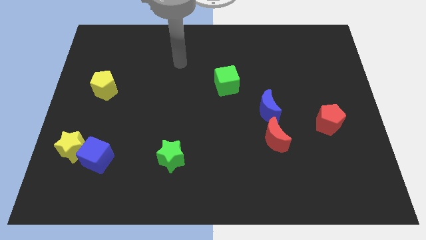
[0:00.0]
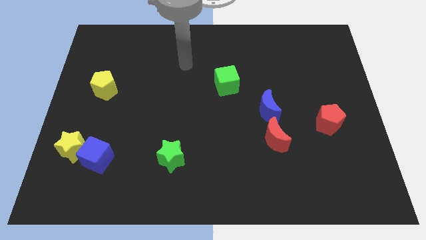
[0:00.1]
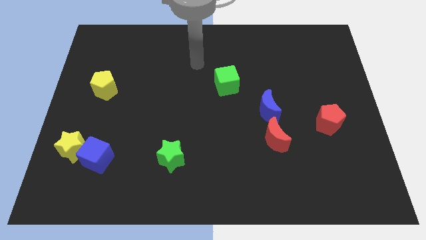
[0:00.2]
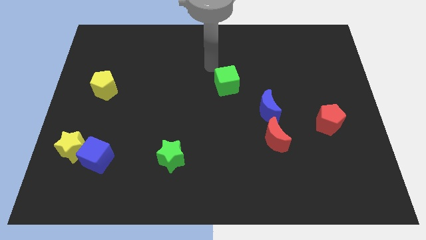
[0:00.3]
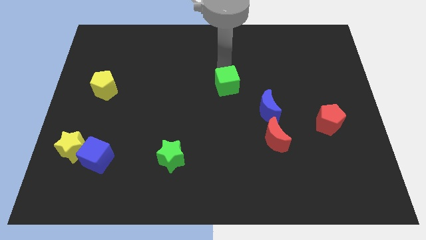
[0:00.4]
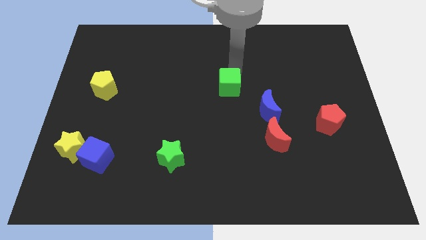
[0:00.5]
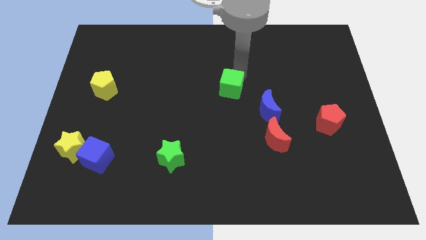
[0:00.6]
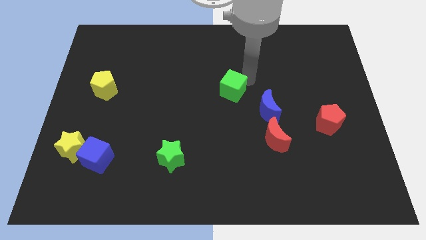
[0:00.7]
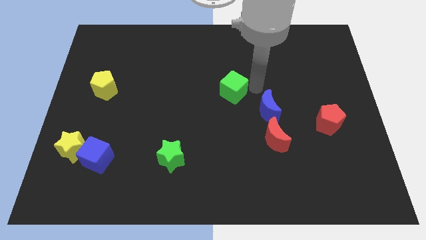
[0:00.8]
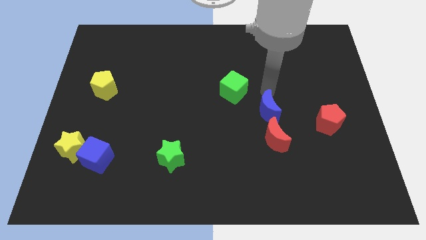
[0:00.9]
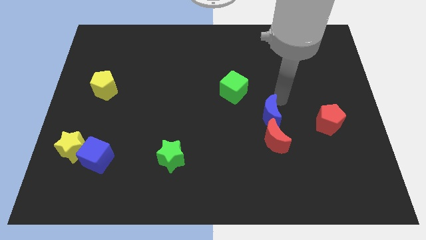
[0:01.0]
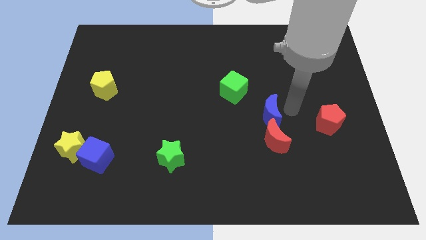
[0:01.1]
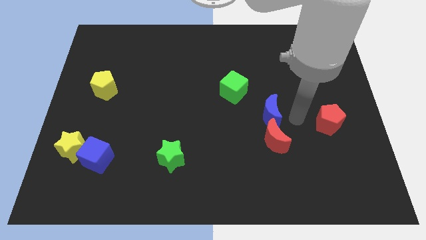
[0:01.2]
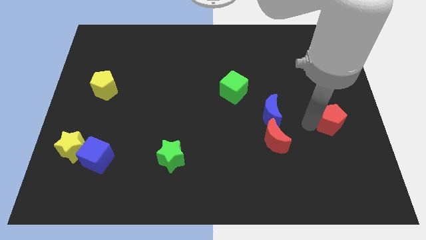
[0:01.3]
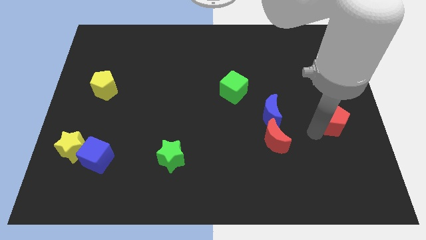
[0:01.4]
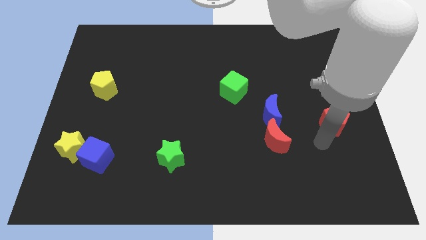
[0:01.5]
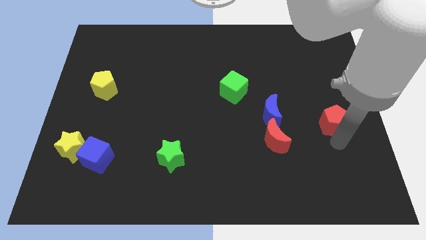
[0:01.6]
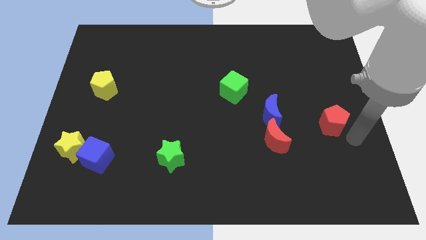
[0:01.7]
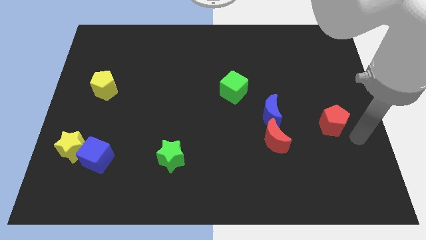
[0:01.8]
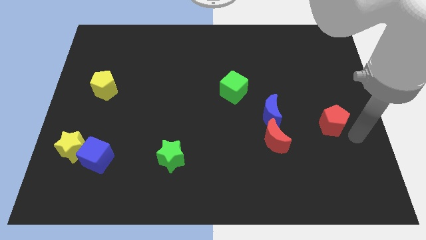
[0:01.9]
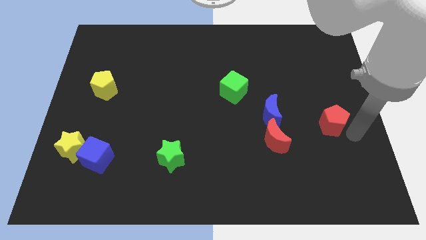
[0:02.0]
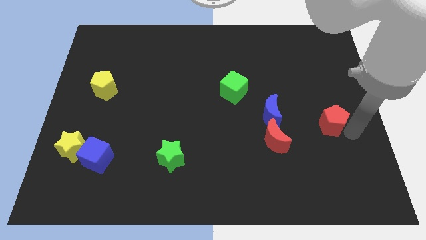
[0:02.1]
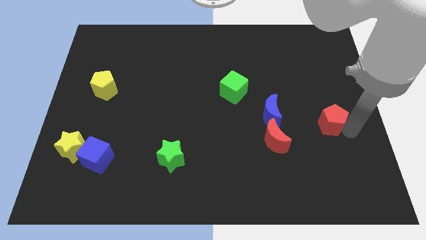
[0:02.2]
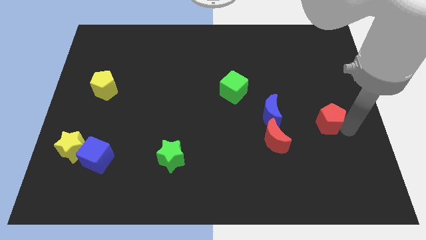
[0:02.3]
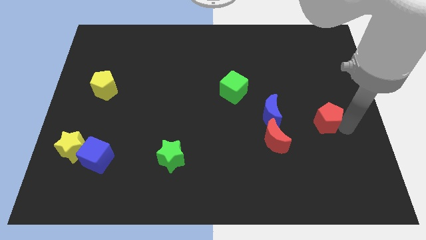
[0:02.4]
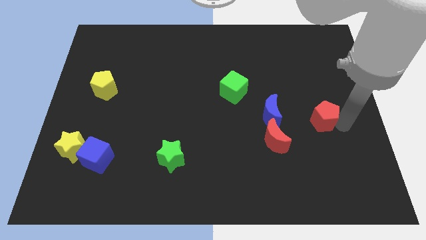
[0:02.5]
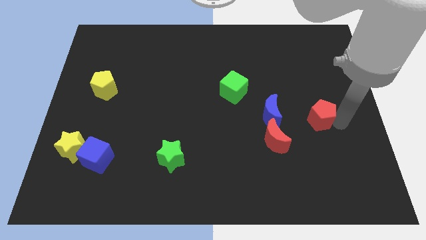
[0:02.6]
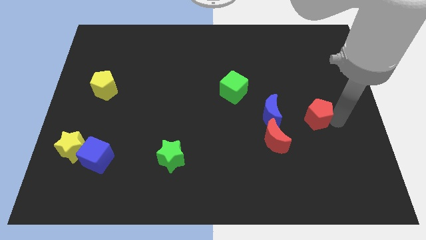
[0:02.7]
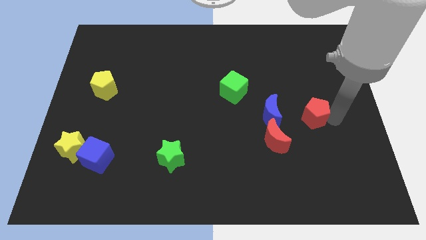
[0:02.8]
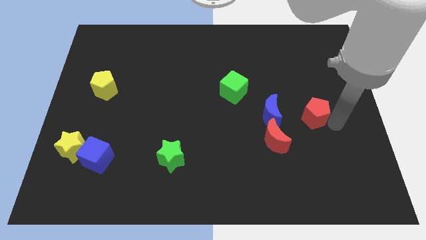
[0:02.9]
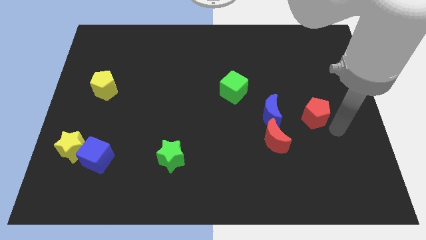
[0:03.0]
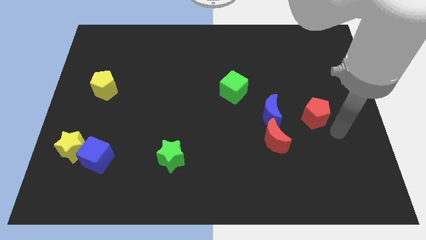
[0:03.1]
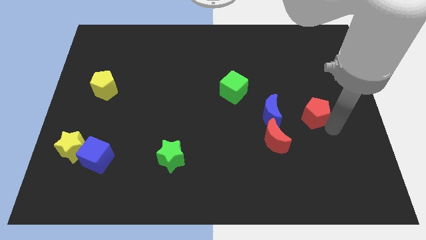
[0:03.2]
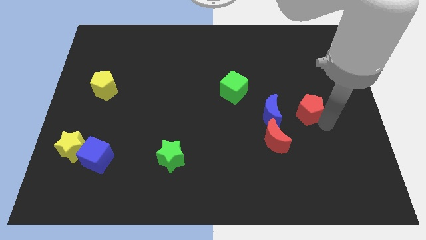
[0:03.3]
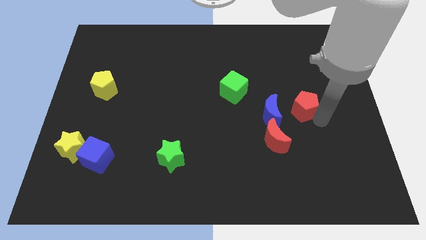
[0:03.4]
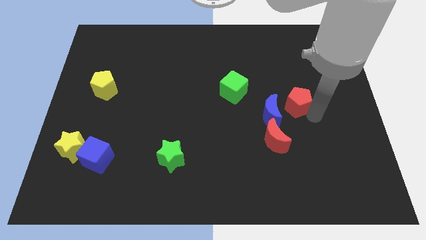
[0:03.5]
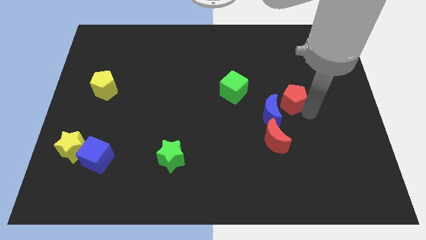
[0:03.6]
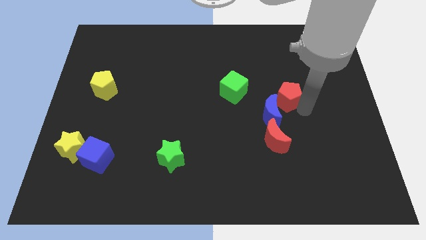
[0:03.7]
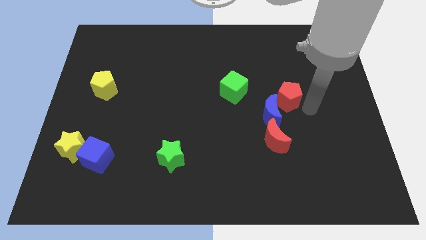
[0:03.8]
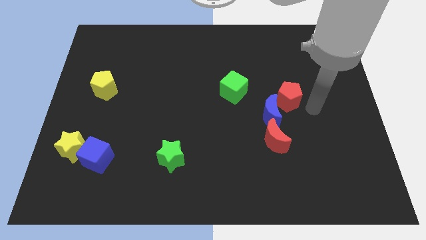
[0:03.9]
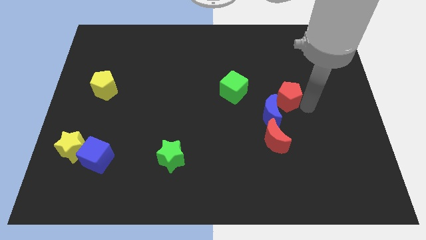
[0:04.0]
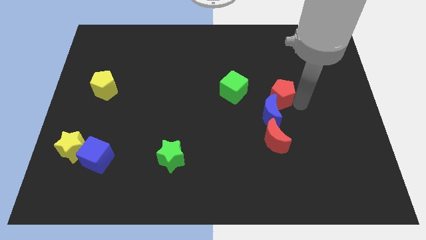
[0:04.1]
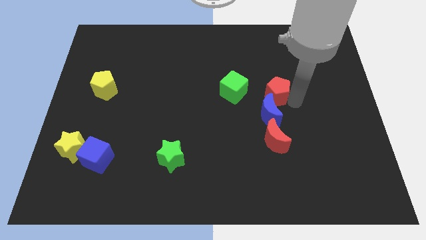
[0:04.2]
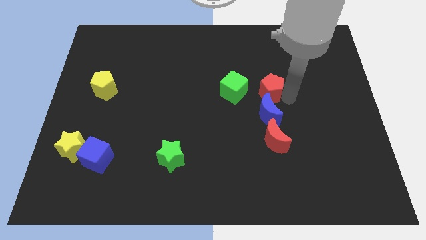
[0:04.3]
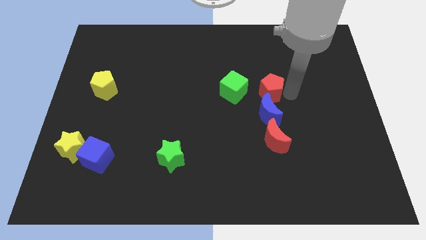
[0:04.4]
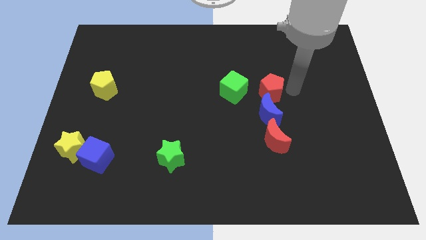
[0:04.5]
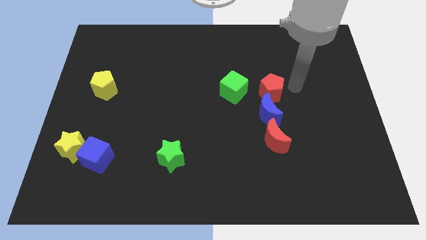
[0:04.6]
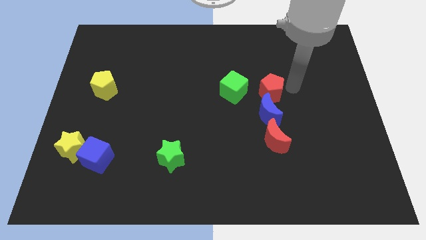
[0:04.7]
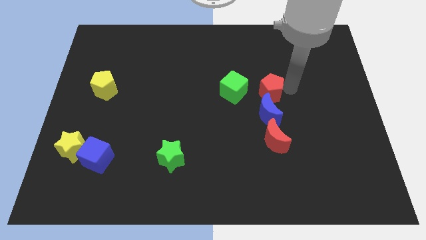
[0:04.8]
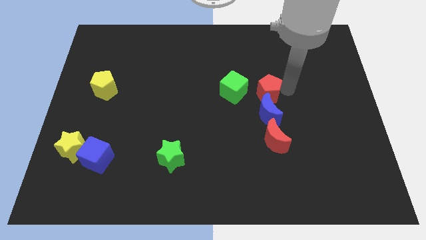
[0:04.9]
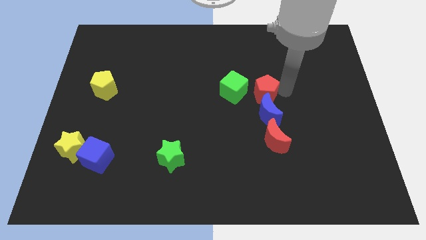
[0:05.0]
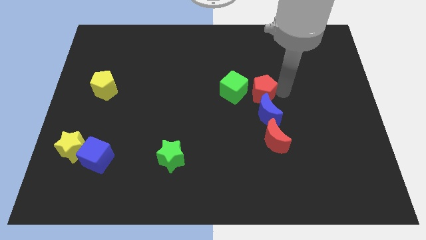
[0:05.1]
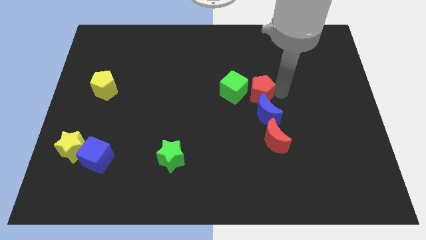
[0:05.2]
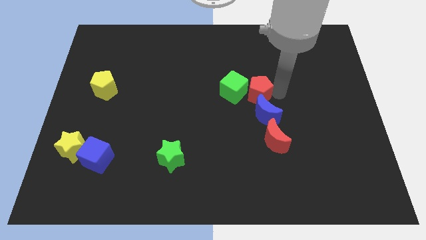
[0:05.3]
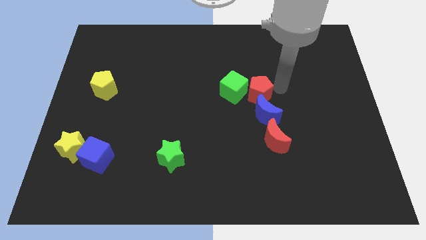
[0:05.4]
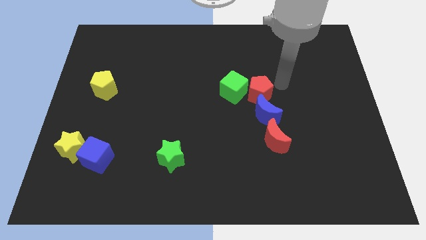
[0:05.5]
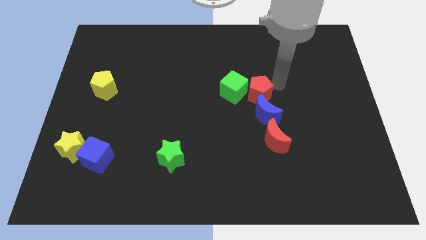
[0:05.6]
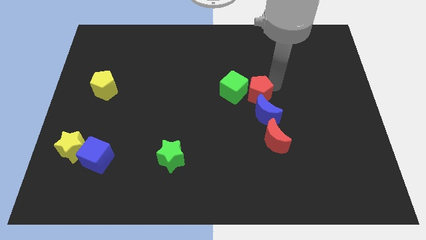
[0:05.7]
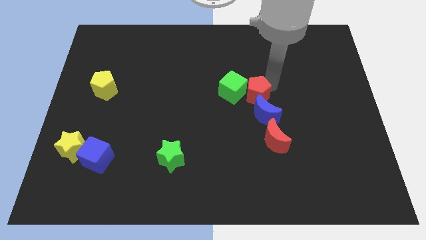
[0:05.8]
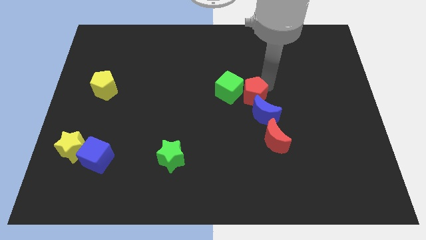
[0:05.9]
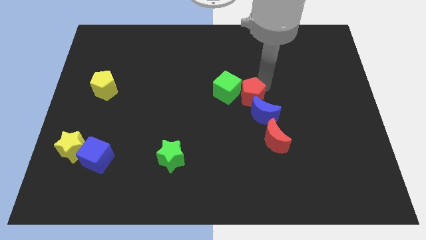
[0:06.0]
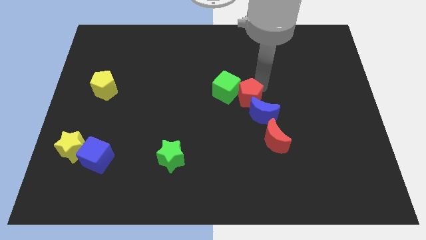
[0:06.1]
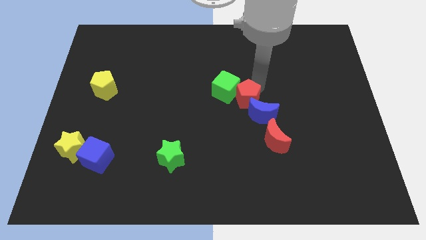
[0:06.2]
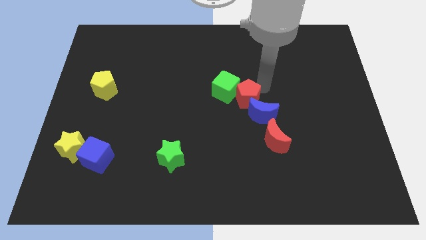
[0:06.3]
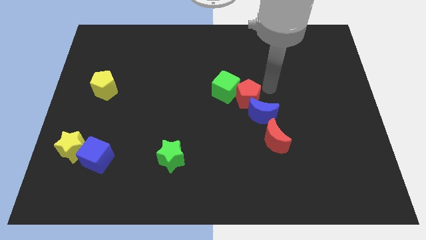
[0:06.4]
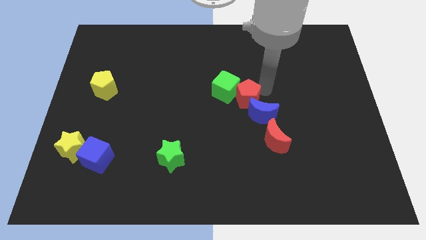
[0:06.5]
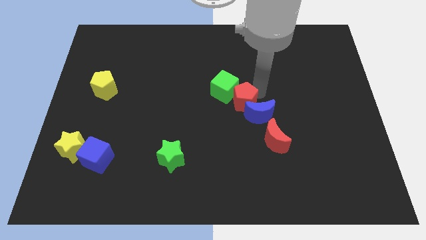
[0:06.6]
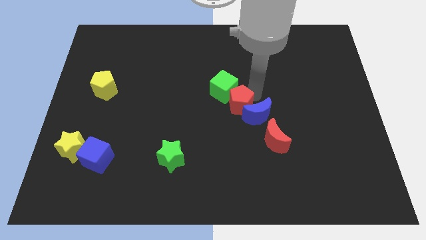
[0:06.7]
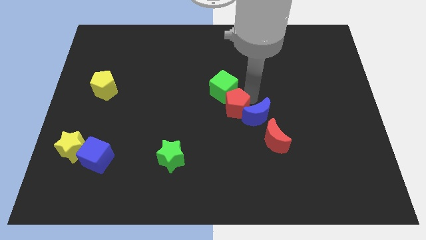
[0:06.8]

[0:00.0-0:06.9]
push the red pentagon to the left

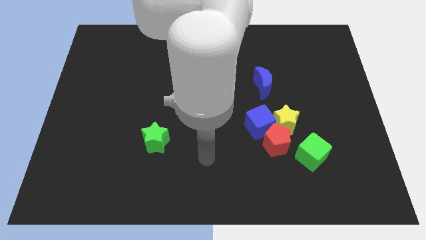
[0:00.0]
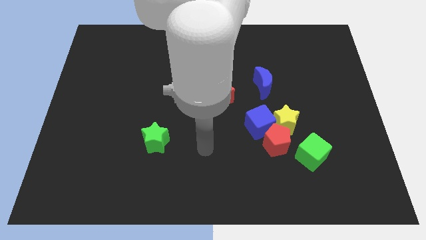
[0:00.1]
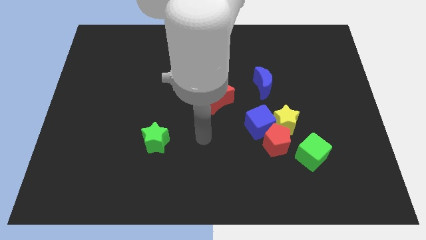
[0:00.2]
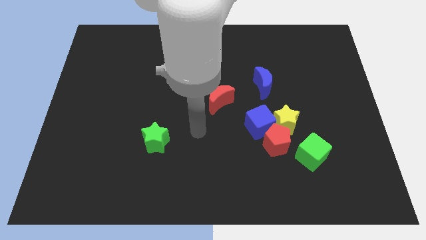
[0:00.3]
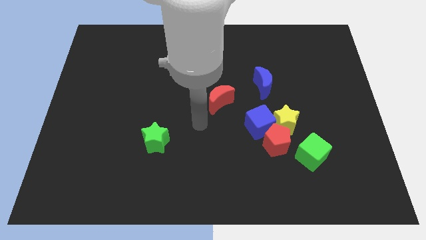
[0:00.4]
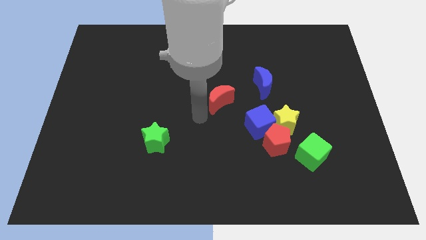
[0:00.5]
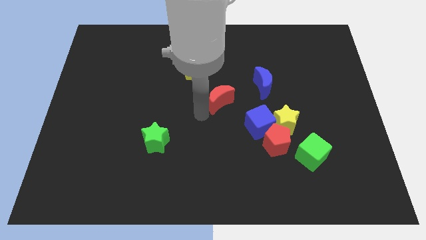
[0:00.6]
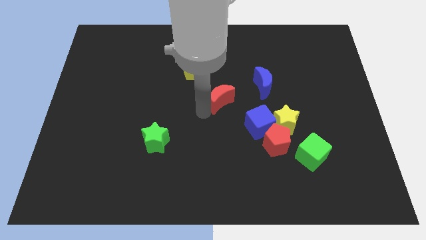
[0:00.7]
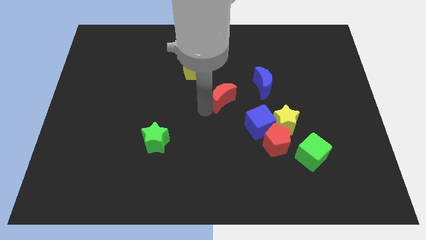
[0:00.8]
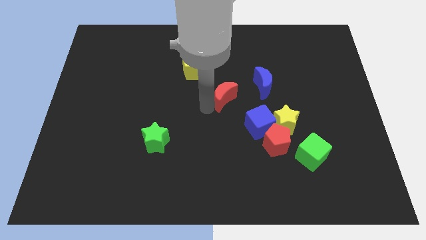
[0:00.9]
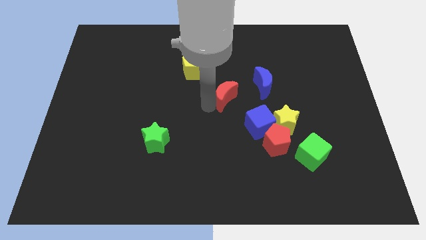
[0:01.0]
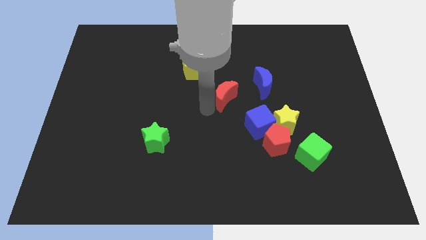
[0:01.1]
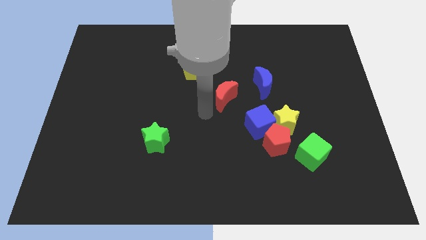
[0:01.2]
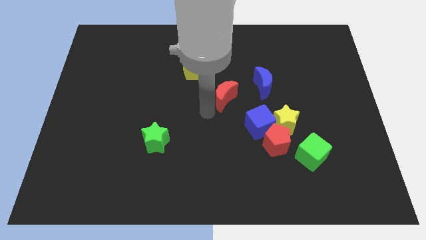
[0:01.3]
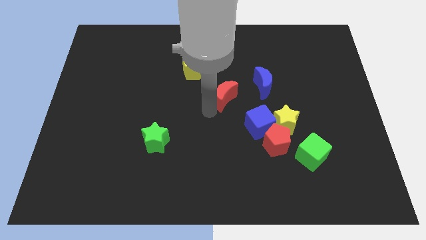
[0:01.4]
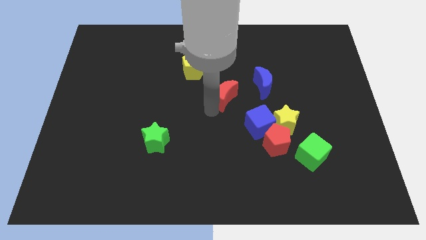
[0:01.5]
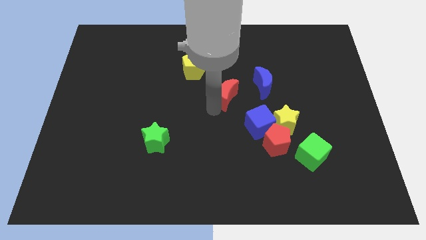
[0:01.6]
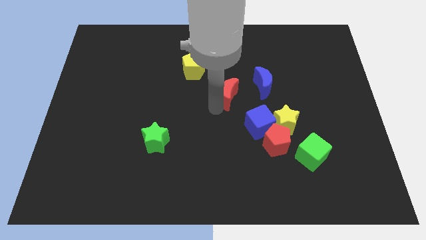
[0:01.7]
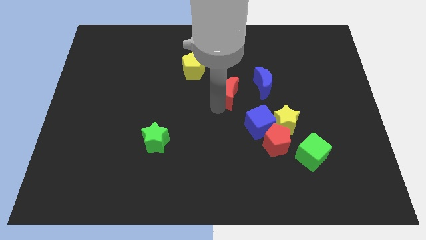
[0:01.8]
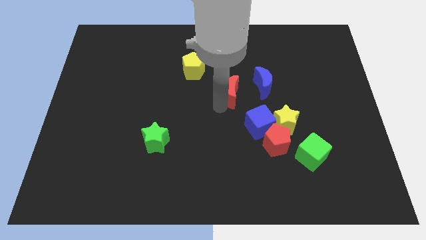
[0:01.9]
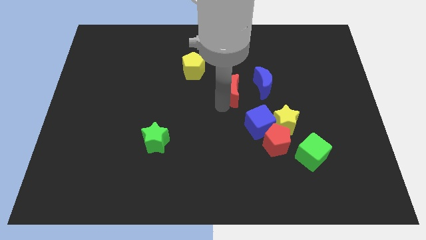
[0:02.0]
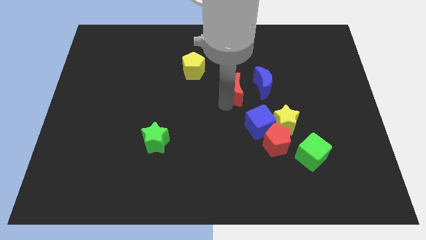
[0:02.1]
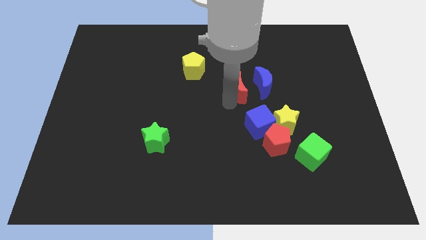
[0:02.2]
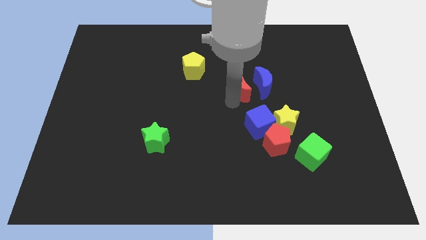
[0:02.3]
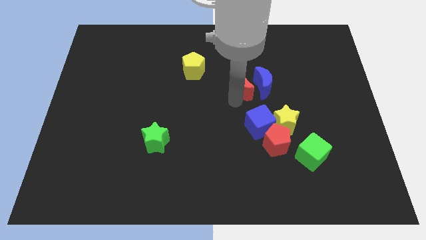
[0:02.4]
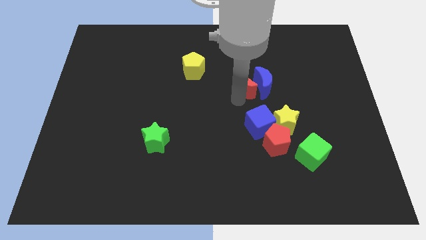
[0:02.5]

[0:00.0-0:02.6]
slide the red moon up and then to the right a little
